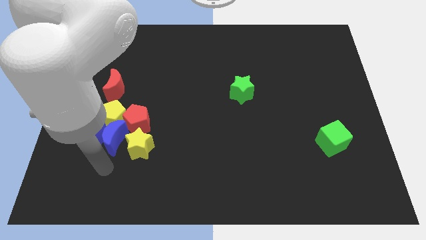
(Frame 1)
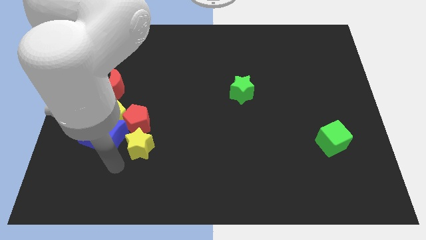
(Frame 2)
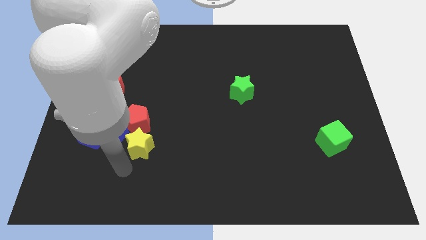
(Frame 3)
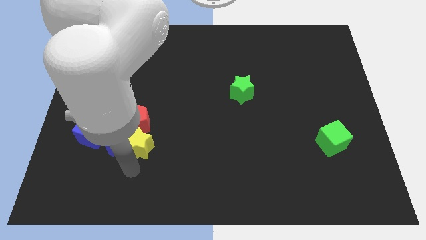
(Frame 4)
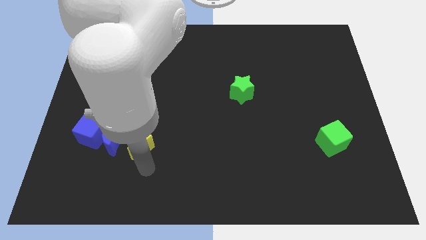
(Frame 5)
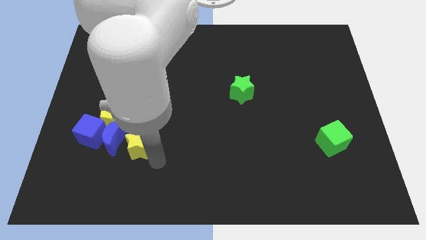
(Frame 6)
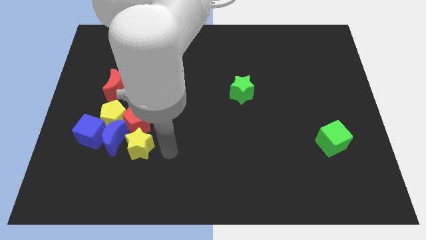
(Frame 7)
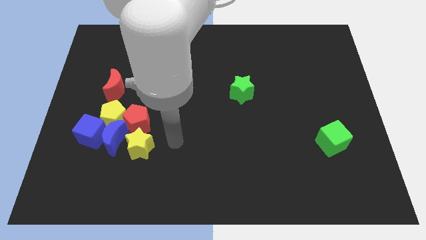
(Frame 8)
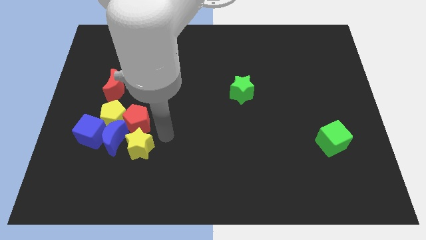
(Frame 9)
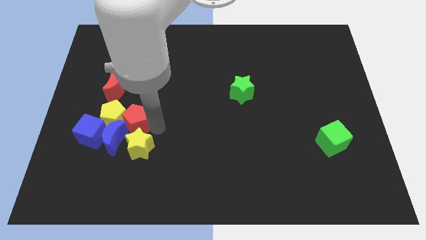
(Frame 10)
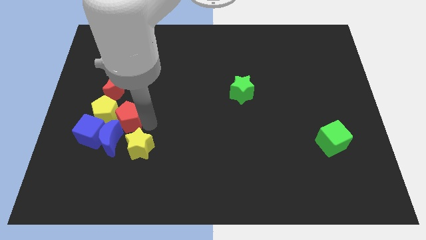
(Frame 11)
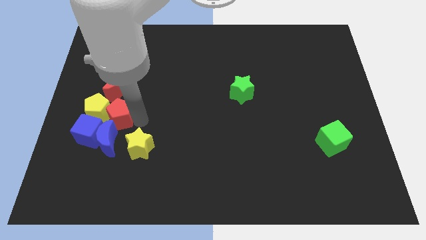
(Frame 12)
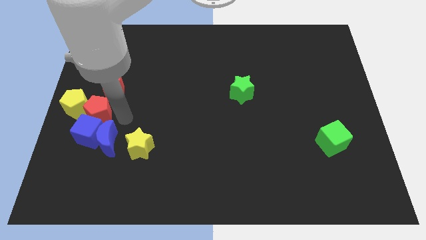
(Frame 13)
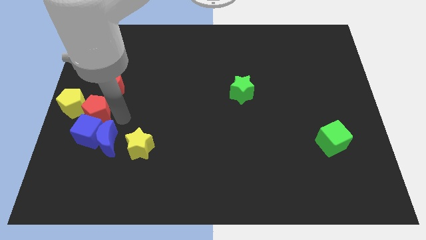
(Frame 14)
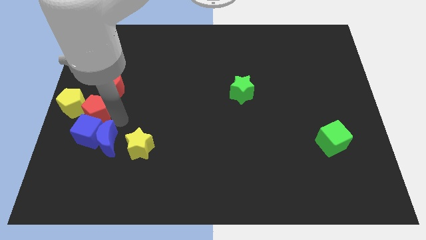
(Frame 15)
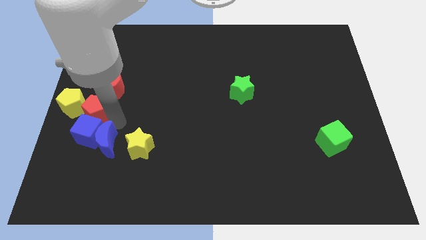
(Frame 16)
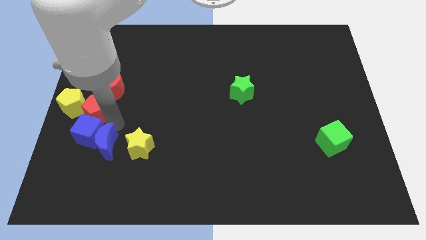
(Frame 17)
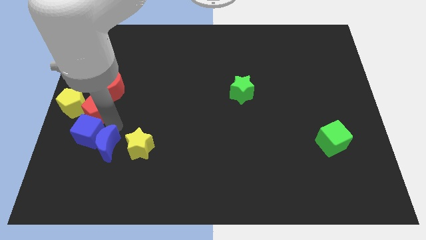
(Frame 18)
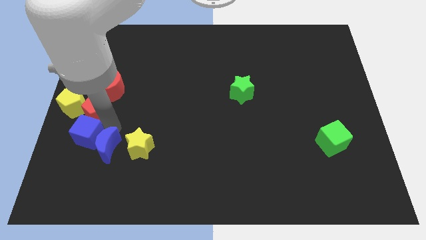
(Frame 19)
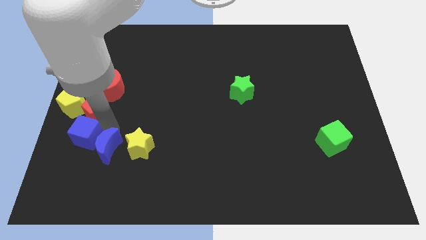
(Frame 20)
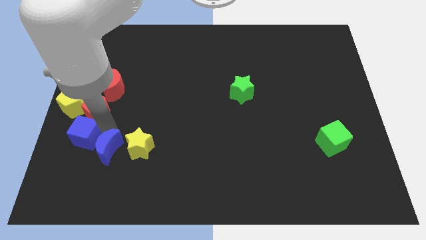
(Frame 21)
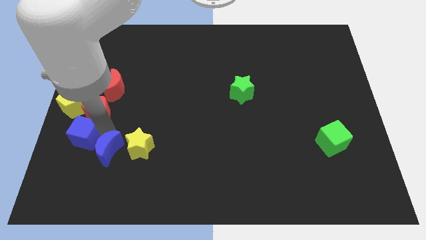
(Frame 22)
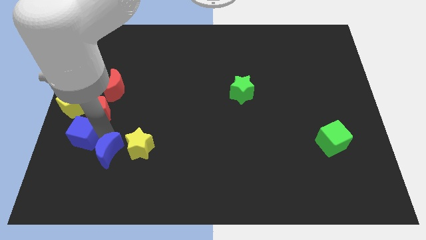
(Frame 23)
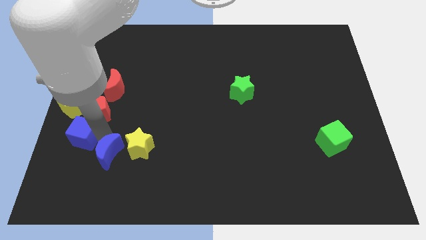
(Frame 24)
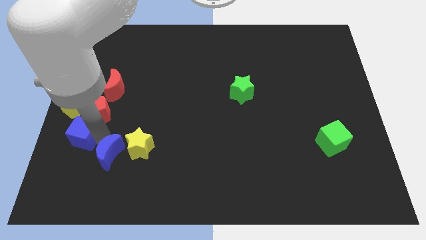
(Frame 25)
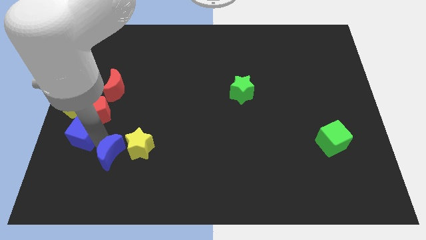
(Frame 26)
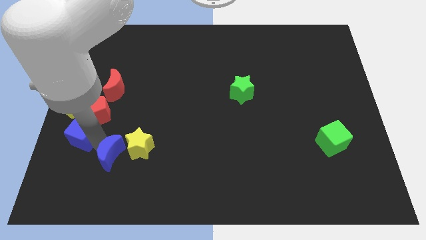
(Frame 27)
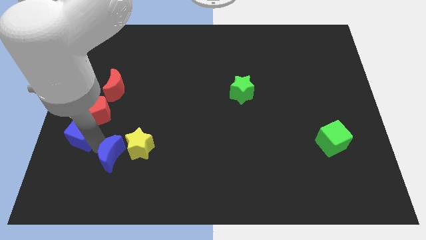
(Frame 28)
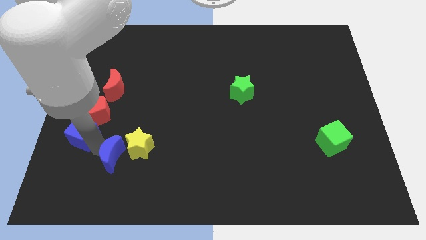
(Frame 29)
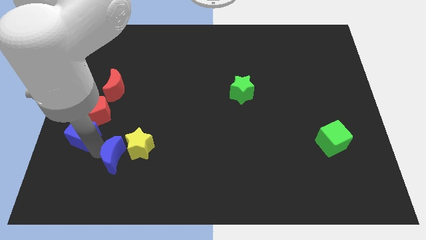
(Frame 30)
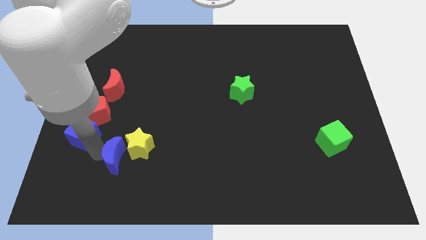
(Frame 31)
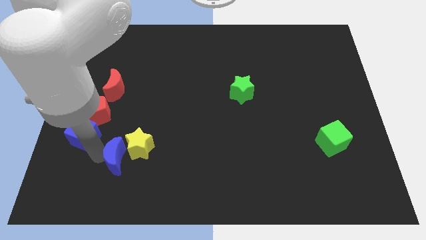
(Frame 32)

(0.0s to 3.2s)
move the blue moon away from the group

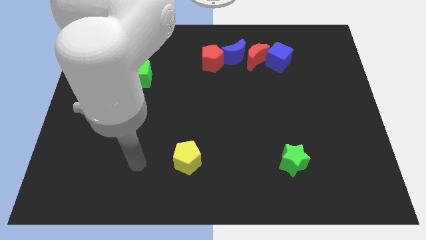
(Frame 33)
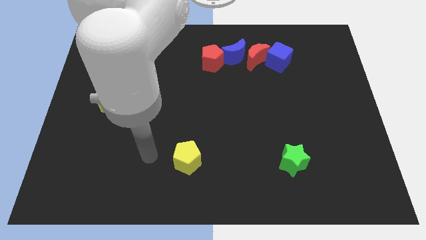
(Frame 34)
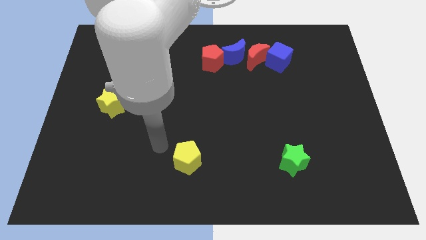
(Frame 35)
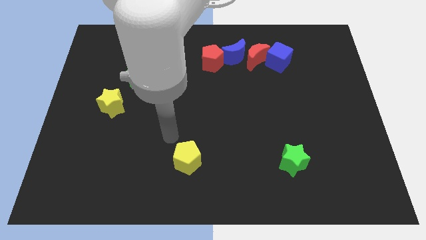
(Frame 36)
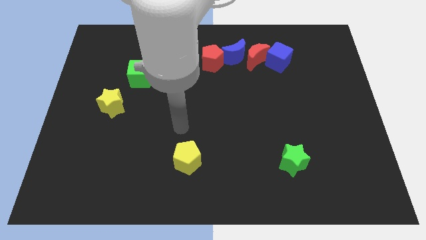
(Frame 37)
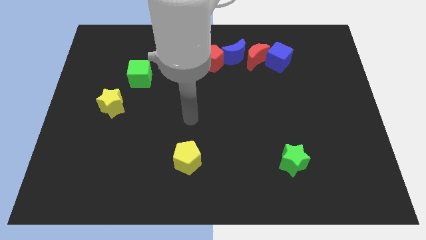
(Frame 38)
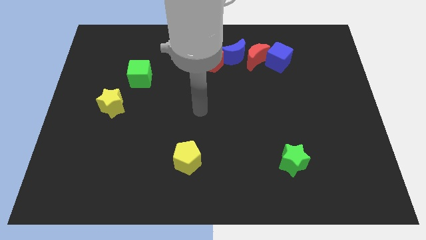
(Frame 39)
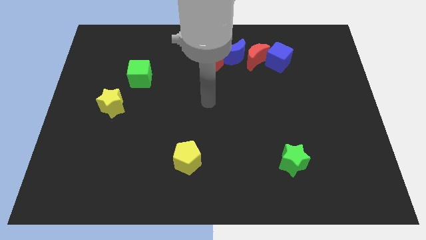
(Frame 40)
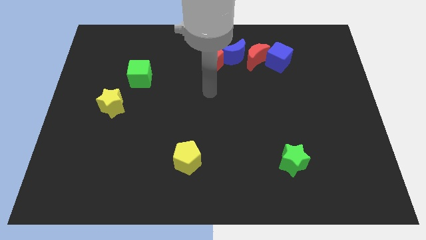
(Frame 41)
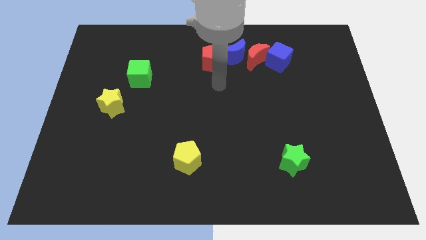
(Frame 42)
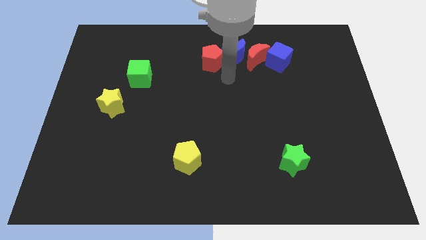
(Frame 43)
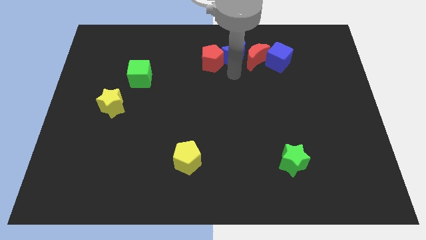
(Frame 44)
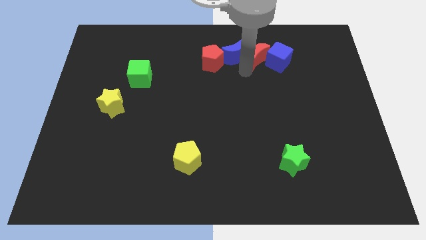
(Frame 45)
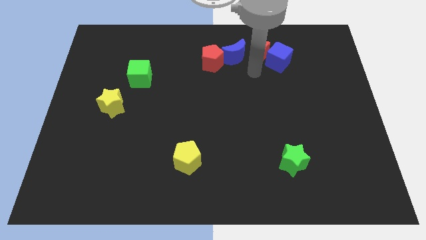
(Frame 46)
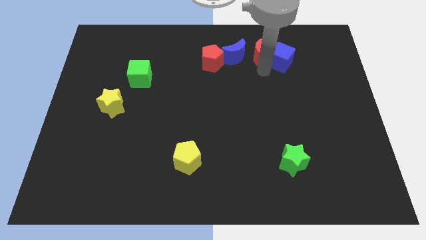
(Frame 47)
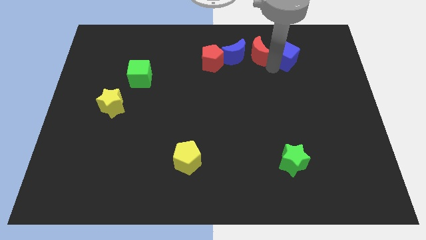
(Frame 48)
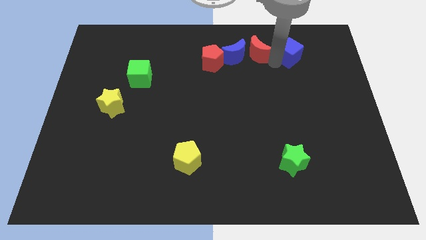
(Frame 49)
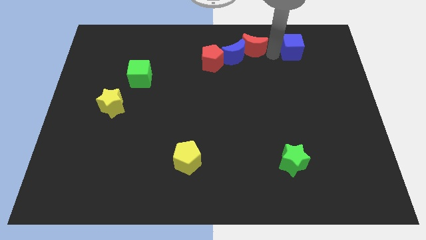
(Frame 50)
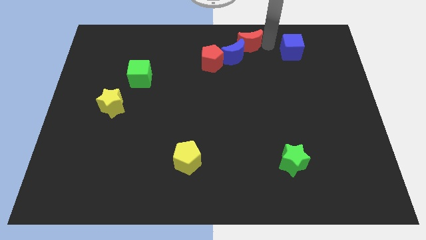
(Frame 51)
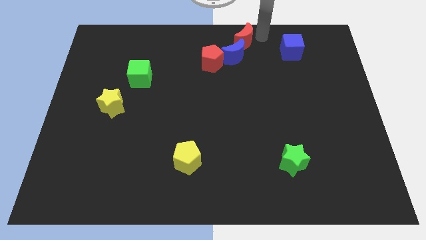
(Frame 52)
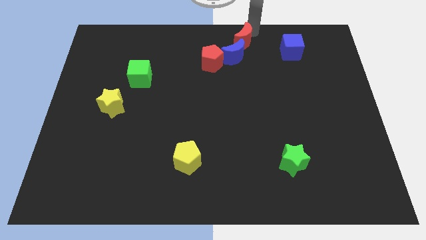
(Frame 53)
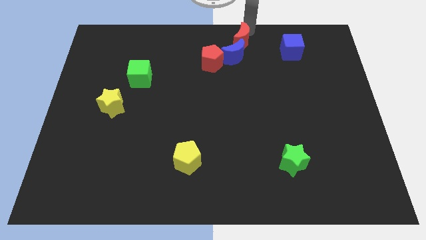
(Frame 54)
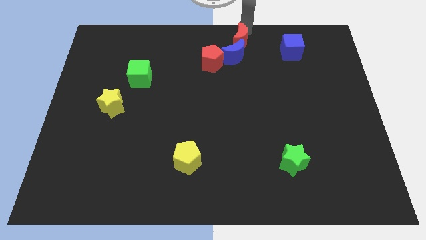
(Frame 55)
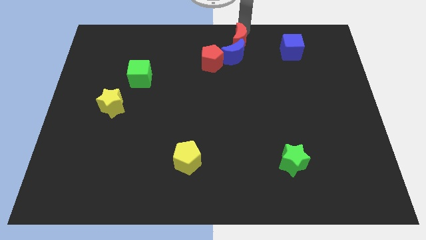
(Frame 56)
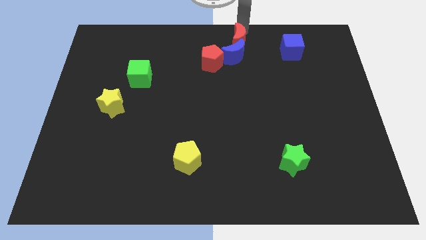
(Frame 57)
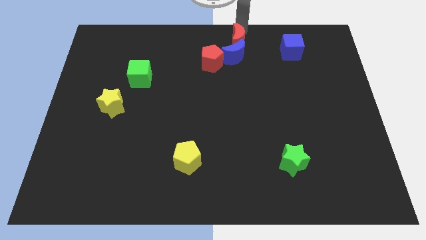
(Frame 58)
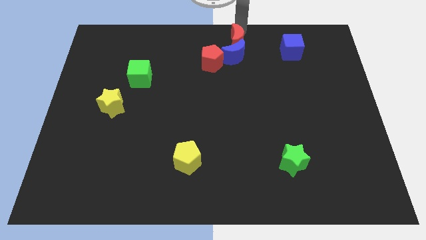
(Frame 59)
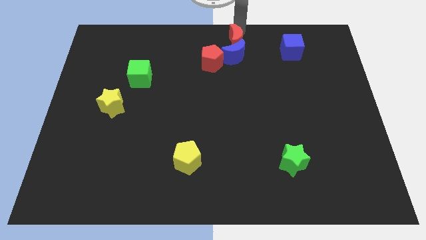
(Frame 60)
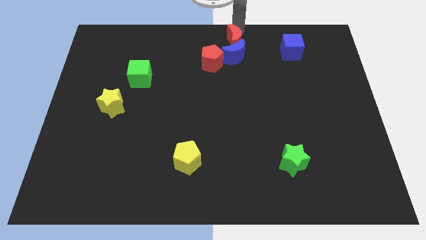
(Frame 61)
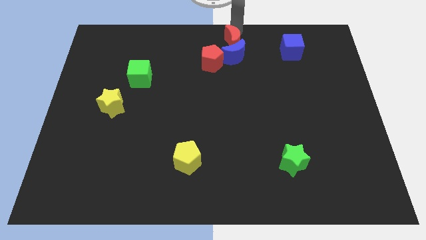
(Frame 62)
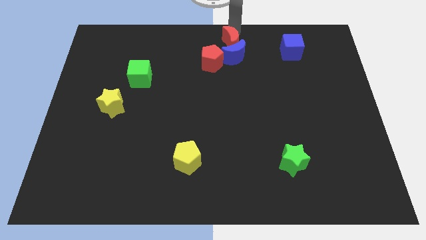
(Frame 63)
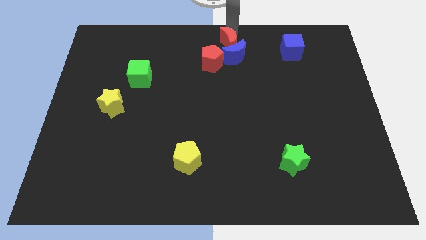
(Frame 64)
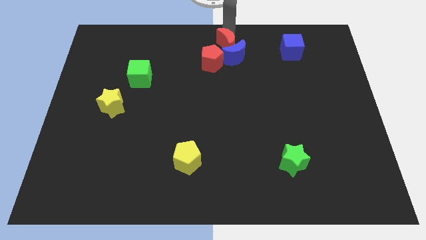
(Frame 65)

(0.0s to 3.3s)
pull the red moon apart from the blue moon and blue cube

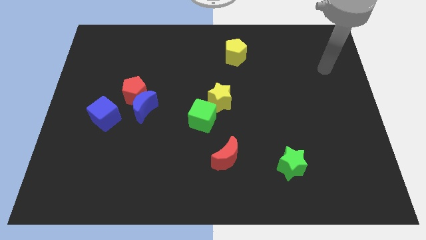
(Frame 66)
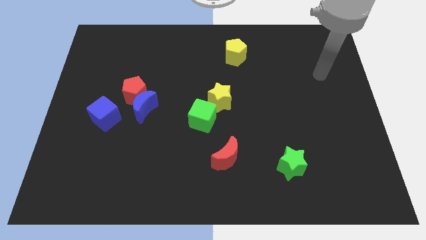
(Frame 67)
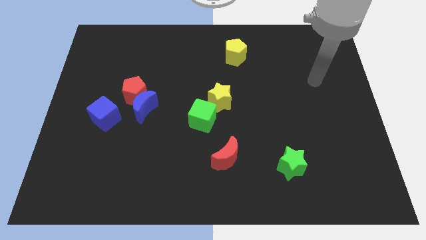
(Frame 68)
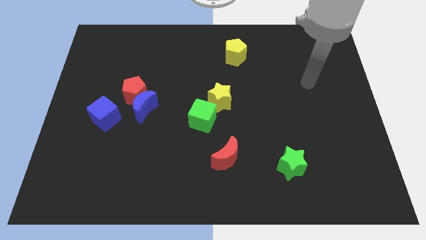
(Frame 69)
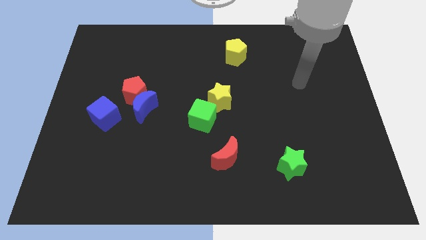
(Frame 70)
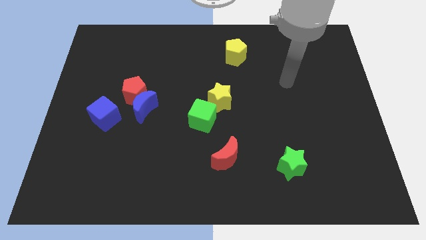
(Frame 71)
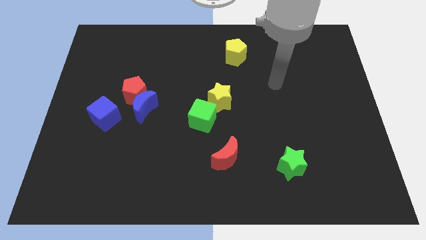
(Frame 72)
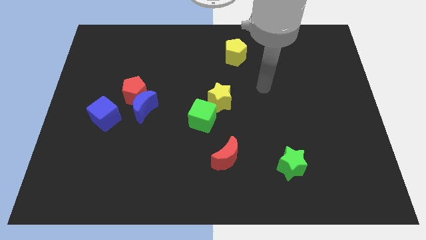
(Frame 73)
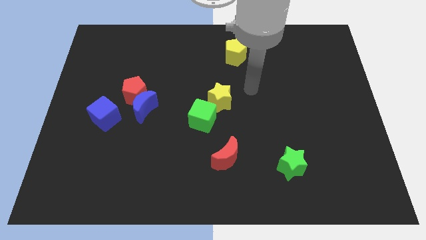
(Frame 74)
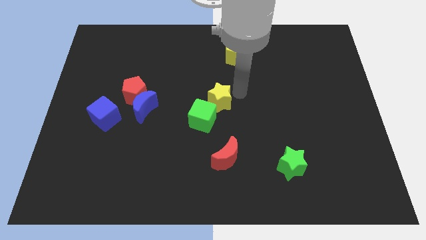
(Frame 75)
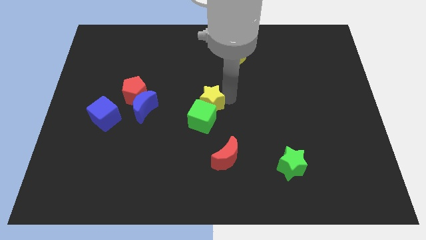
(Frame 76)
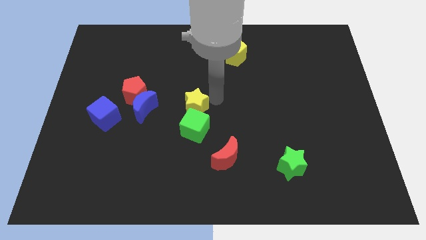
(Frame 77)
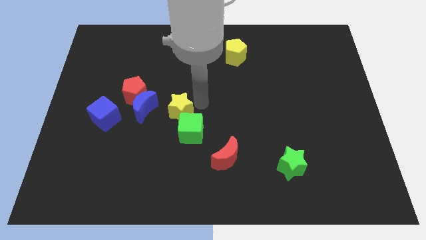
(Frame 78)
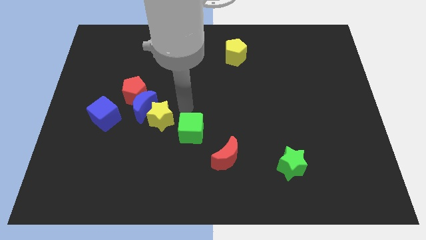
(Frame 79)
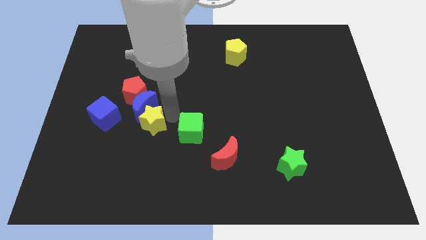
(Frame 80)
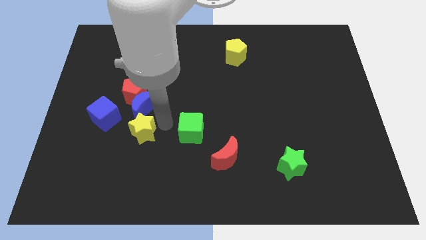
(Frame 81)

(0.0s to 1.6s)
pull the green cube apart from the yellow star

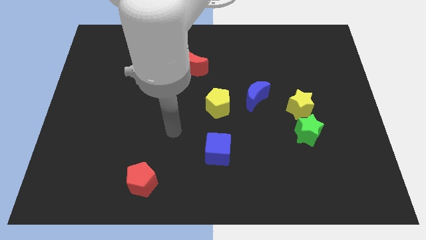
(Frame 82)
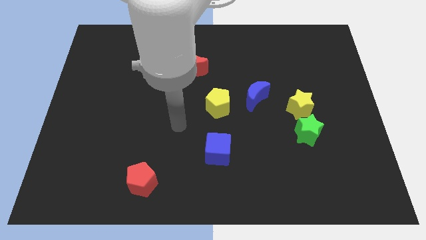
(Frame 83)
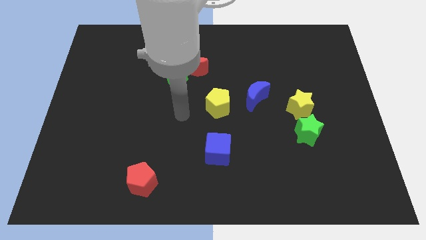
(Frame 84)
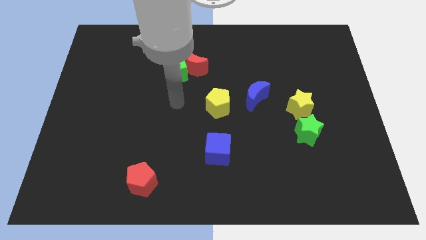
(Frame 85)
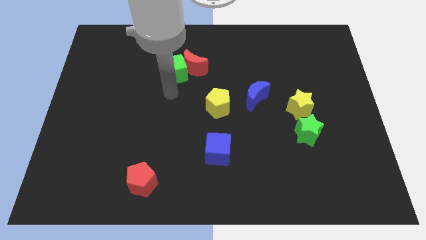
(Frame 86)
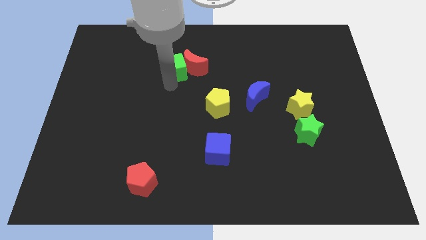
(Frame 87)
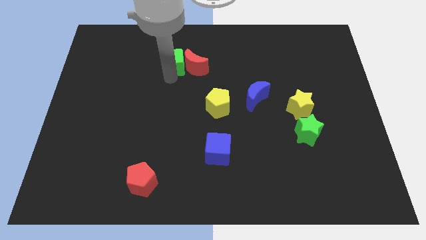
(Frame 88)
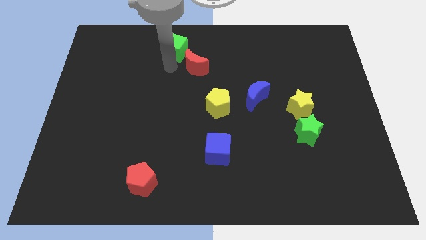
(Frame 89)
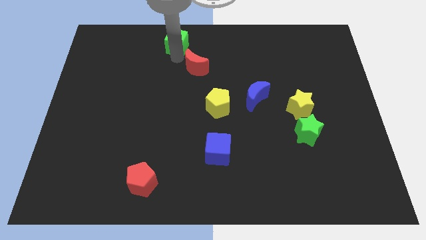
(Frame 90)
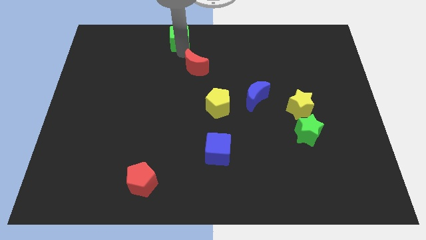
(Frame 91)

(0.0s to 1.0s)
move the red moon away from the green cube

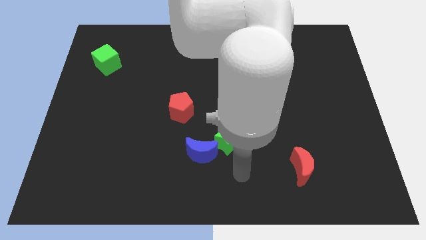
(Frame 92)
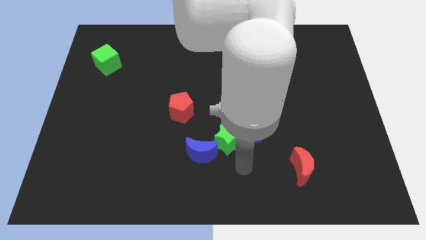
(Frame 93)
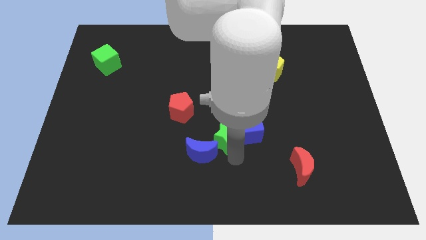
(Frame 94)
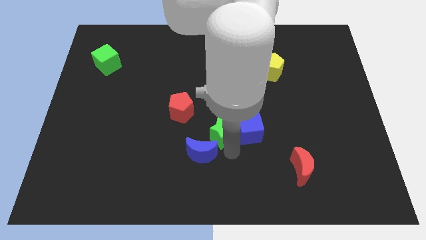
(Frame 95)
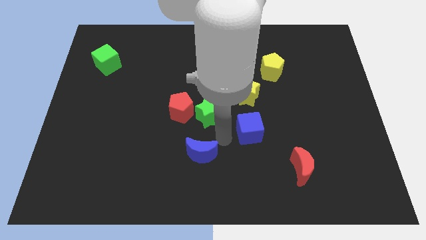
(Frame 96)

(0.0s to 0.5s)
move the blue cube away from the green star
